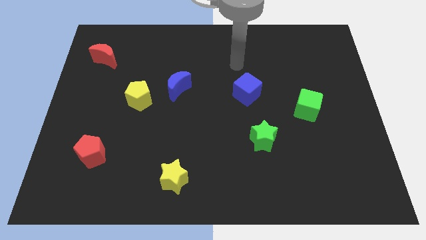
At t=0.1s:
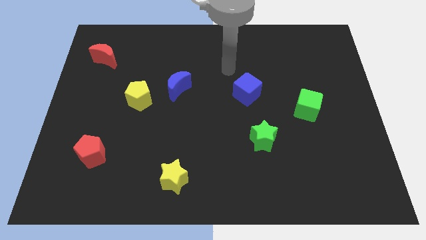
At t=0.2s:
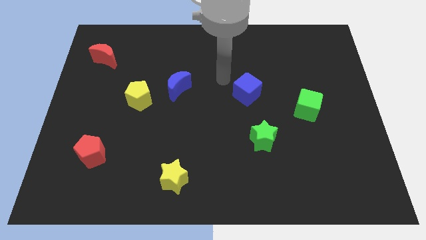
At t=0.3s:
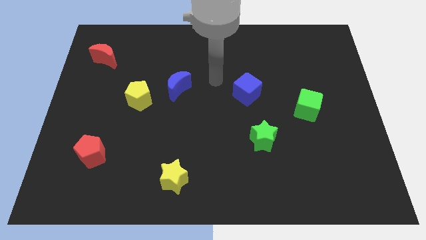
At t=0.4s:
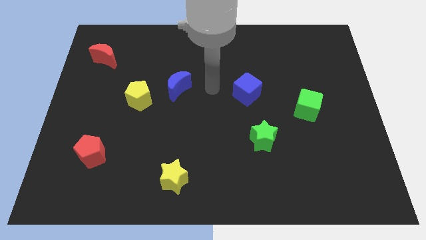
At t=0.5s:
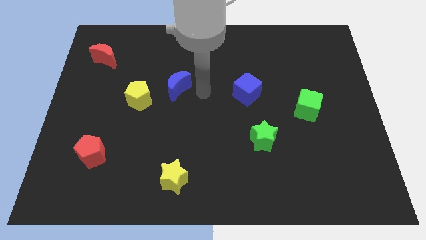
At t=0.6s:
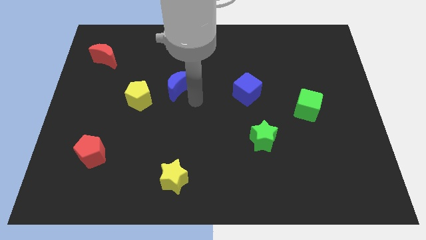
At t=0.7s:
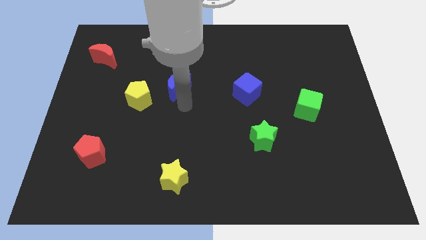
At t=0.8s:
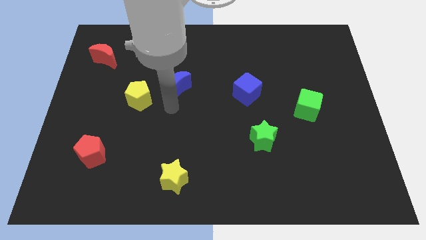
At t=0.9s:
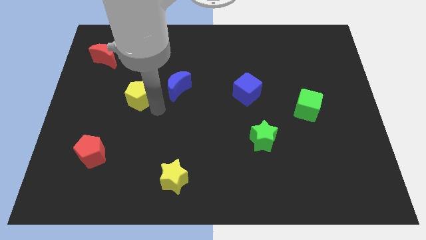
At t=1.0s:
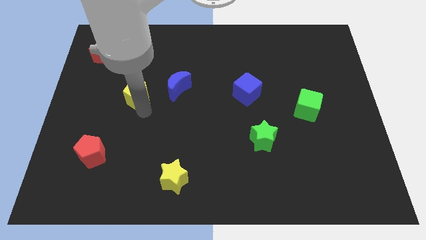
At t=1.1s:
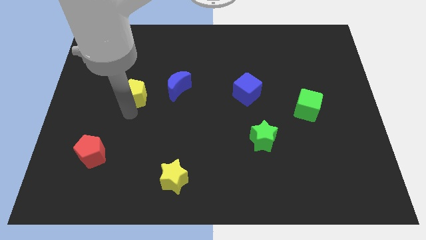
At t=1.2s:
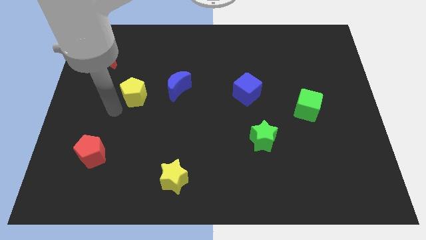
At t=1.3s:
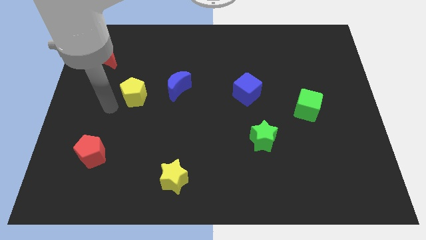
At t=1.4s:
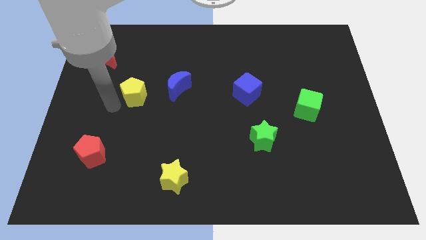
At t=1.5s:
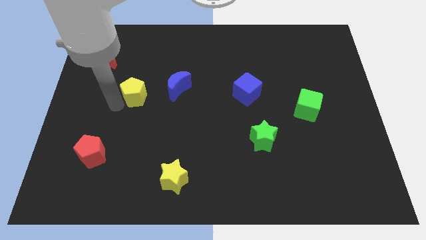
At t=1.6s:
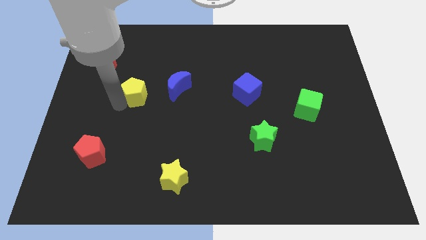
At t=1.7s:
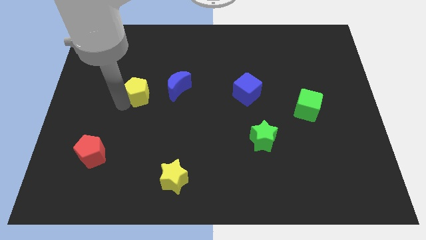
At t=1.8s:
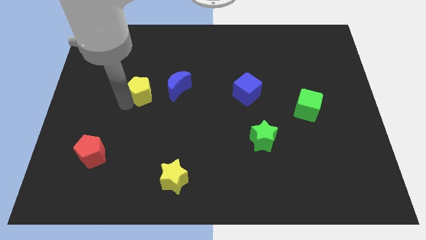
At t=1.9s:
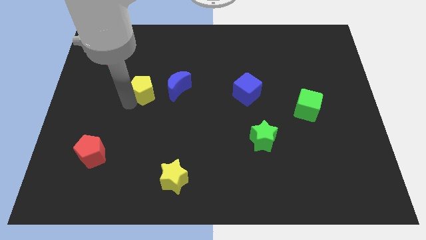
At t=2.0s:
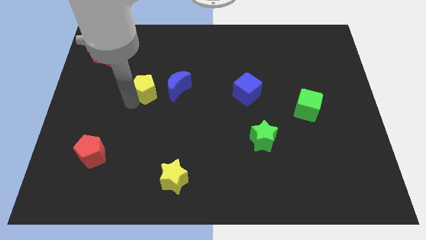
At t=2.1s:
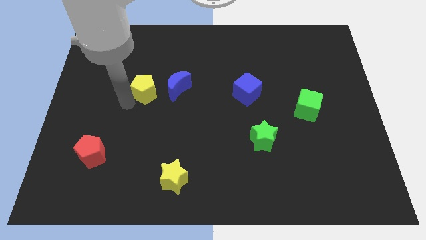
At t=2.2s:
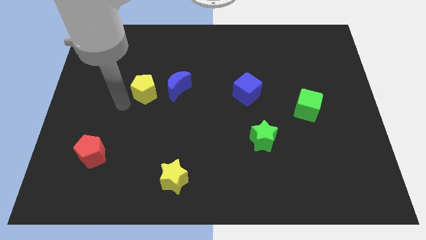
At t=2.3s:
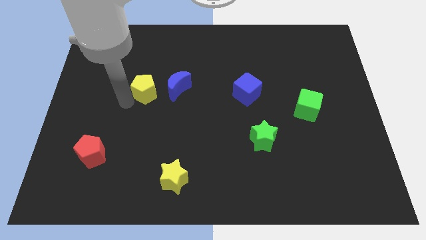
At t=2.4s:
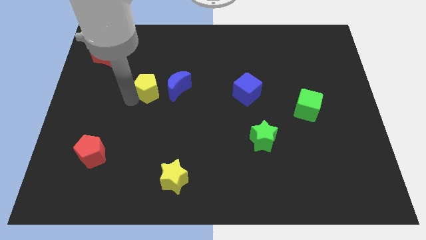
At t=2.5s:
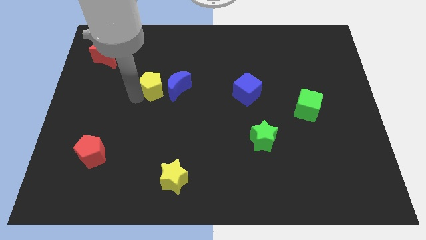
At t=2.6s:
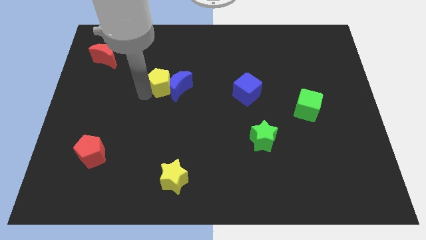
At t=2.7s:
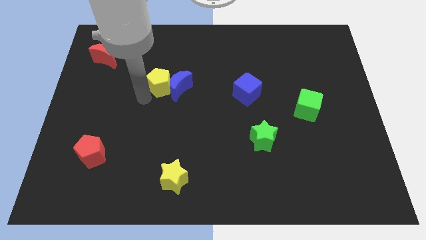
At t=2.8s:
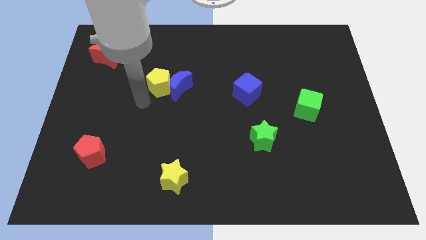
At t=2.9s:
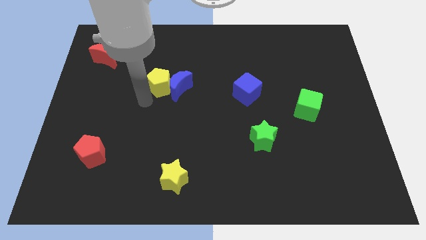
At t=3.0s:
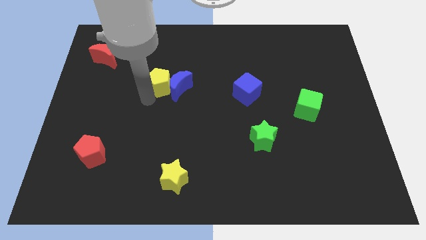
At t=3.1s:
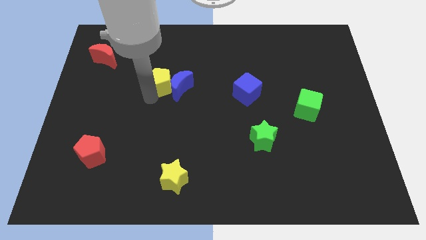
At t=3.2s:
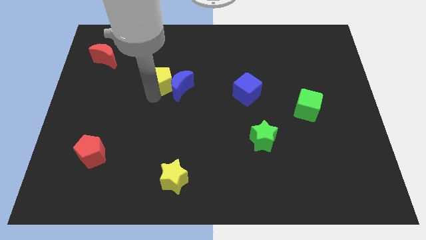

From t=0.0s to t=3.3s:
push the yellow pentagon a little bit upwards and then to the right

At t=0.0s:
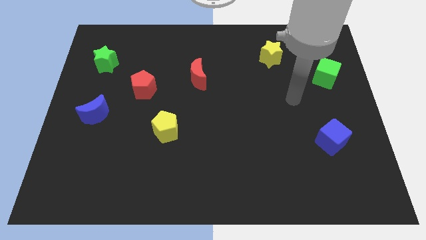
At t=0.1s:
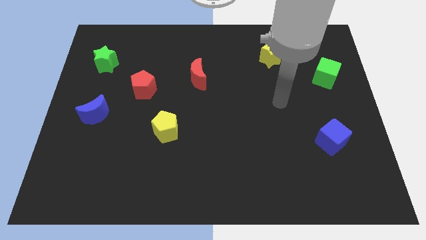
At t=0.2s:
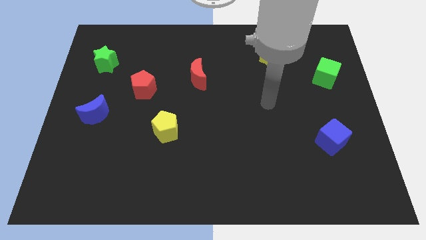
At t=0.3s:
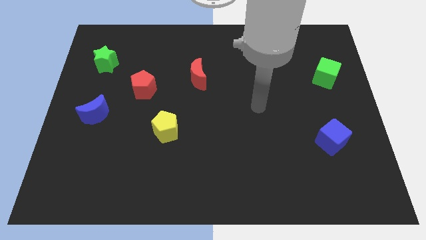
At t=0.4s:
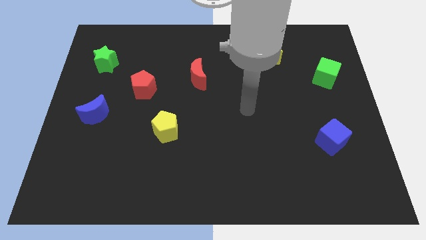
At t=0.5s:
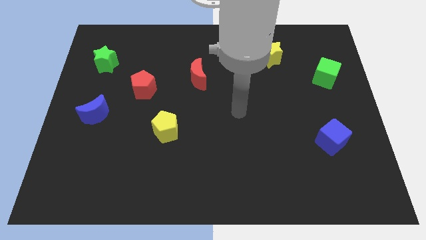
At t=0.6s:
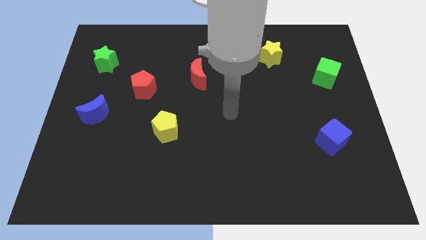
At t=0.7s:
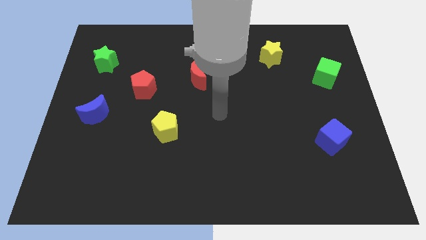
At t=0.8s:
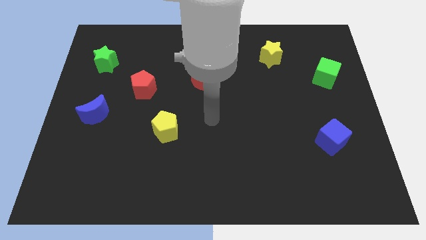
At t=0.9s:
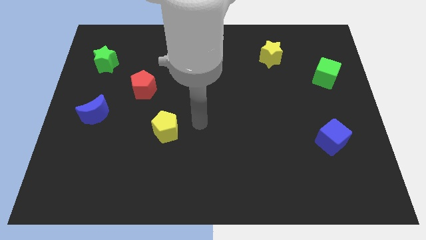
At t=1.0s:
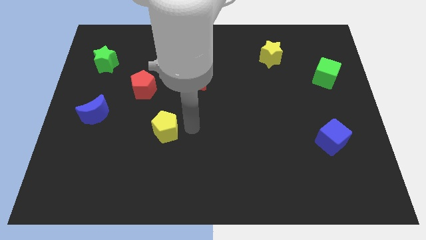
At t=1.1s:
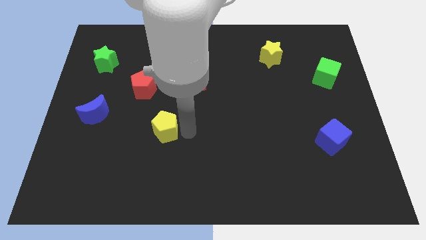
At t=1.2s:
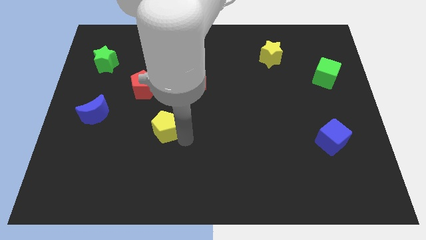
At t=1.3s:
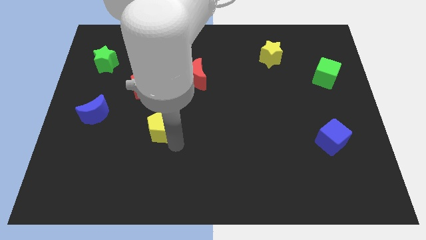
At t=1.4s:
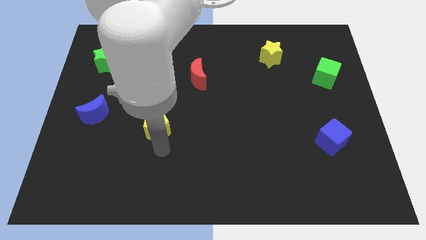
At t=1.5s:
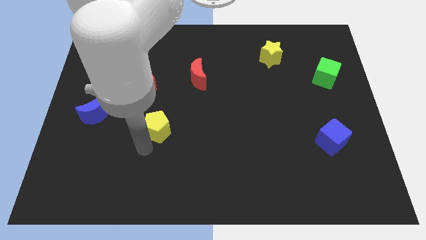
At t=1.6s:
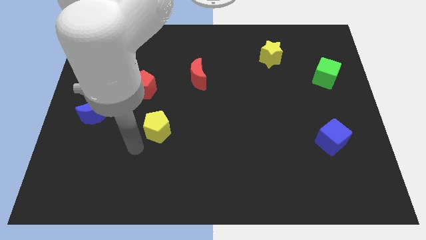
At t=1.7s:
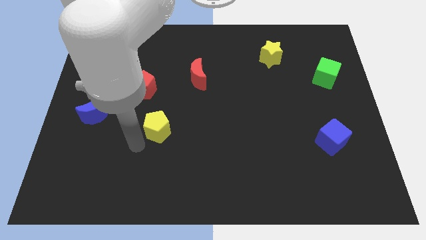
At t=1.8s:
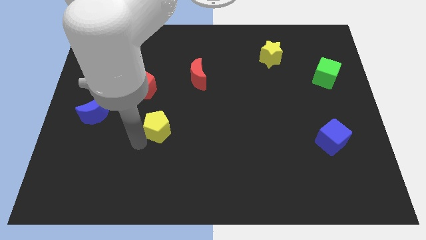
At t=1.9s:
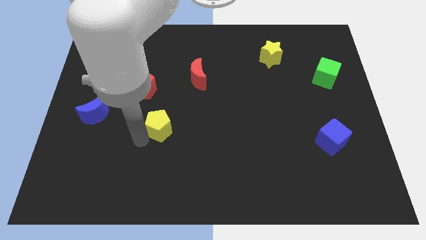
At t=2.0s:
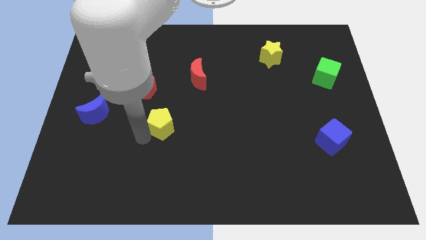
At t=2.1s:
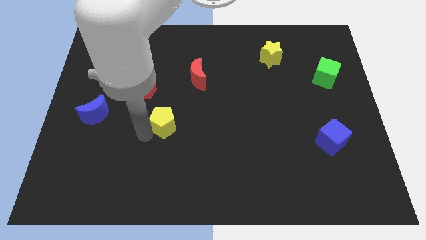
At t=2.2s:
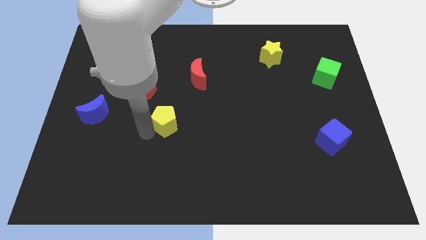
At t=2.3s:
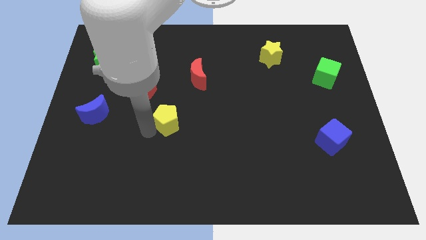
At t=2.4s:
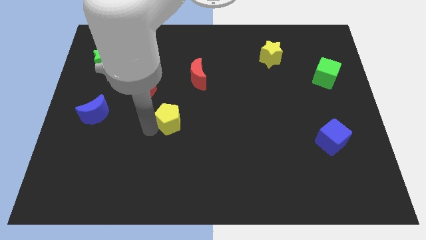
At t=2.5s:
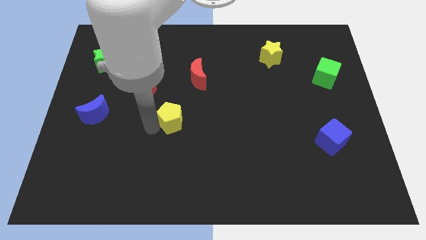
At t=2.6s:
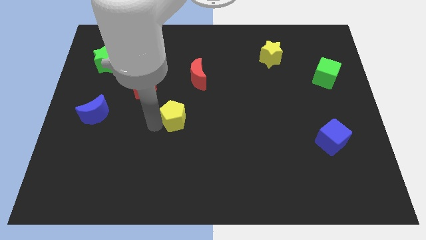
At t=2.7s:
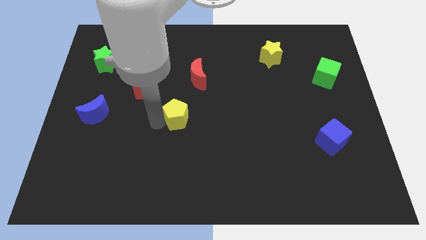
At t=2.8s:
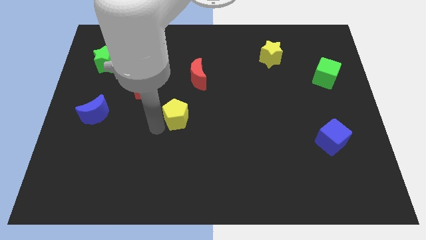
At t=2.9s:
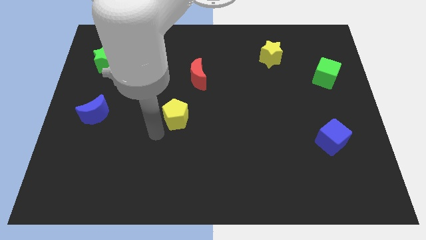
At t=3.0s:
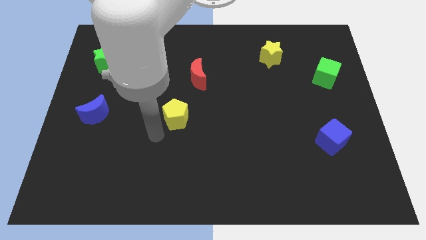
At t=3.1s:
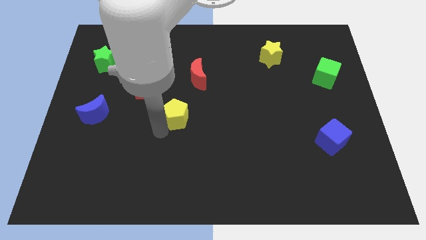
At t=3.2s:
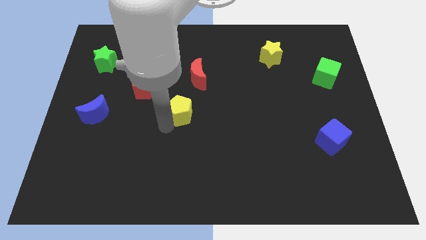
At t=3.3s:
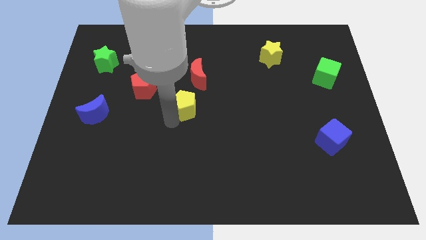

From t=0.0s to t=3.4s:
slightly move the yellow pentagon diagonally up and to the right

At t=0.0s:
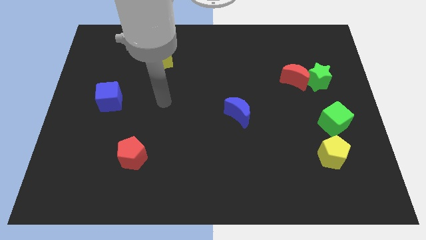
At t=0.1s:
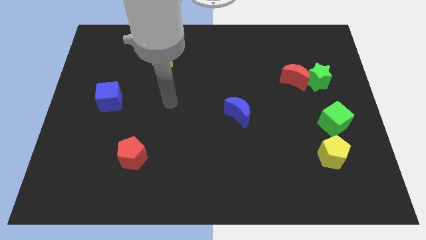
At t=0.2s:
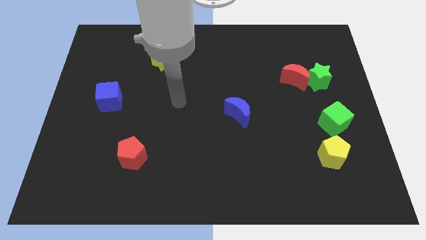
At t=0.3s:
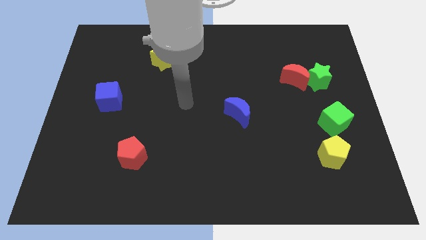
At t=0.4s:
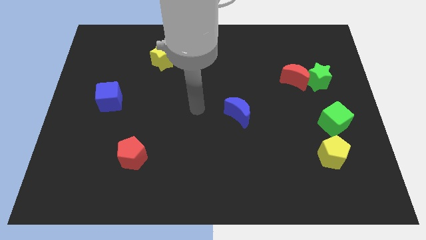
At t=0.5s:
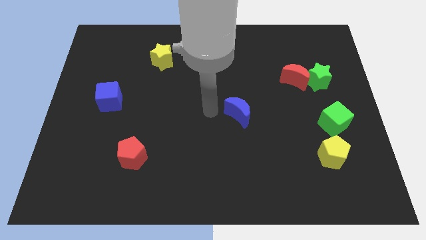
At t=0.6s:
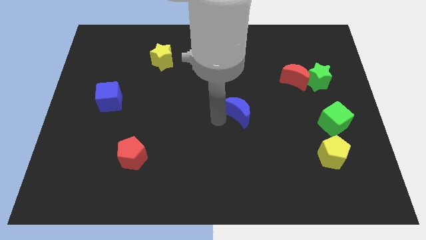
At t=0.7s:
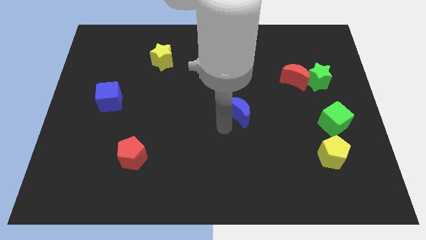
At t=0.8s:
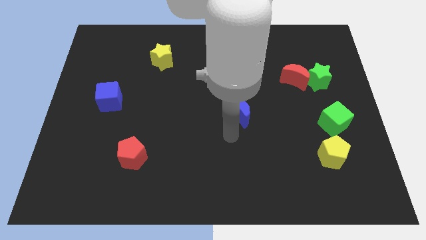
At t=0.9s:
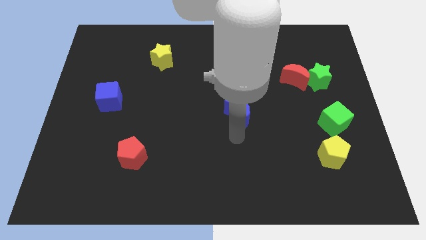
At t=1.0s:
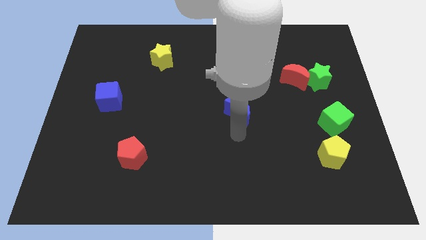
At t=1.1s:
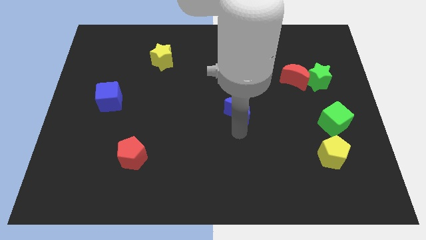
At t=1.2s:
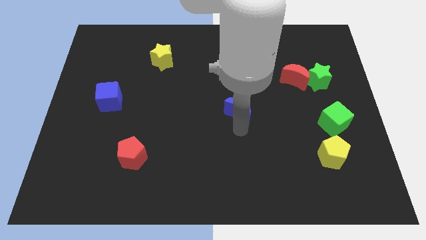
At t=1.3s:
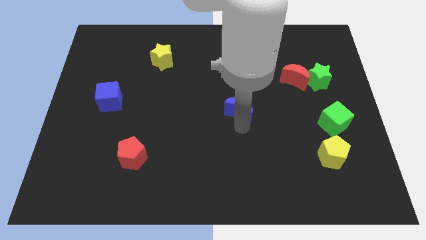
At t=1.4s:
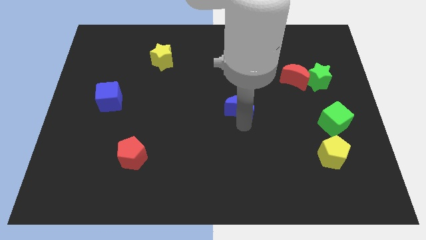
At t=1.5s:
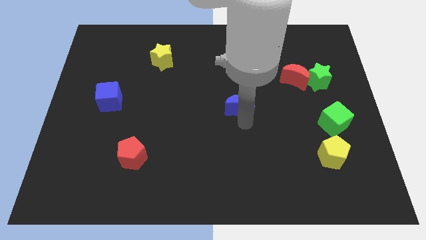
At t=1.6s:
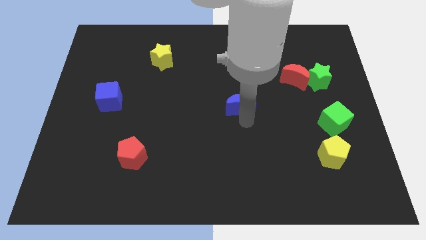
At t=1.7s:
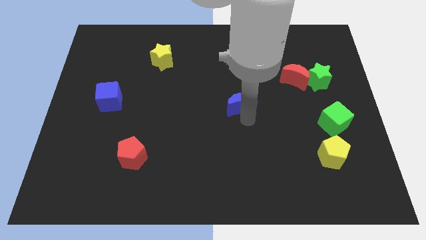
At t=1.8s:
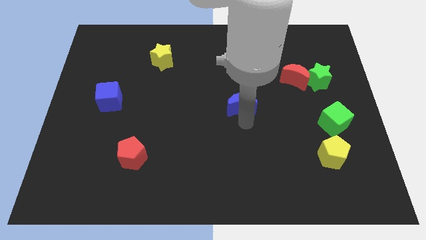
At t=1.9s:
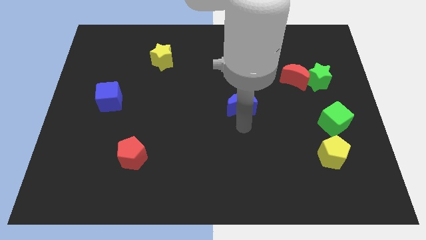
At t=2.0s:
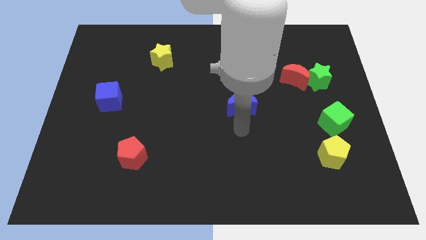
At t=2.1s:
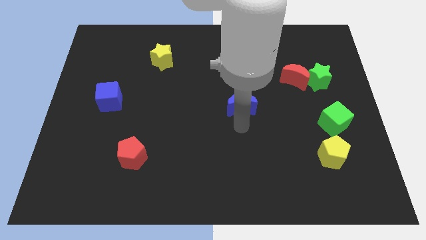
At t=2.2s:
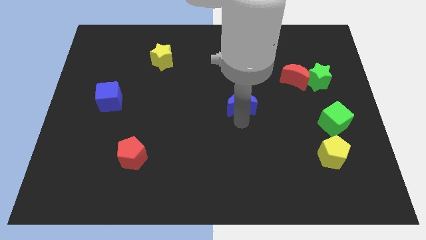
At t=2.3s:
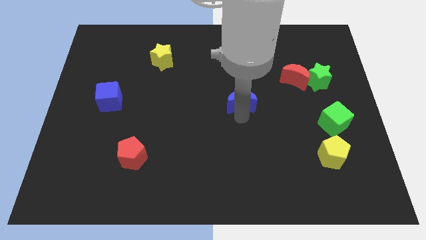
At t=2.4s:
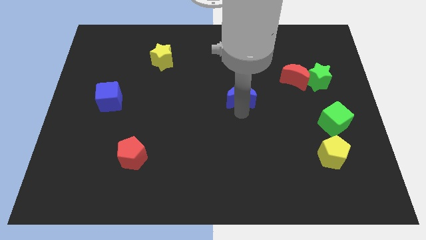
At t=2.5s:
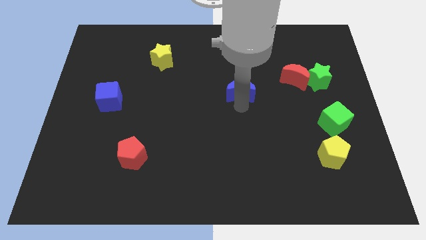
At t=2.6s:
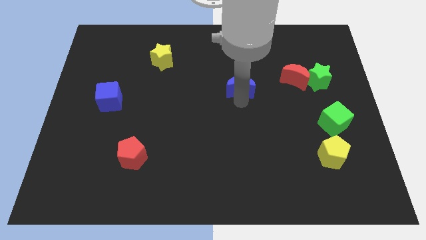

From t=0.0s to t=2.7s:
slightly move the blue moon up
